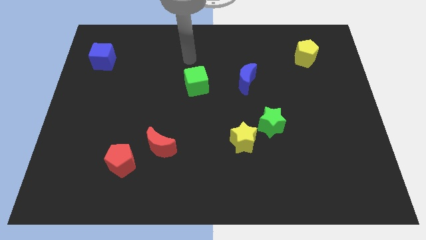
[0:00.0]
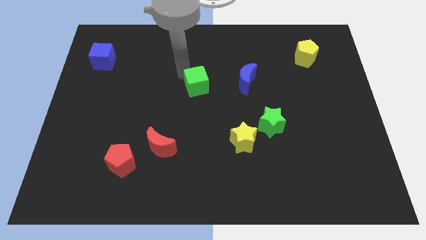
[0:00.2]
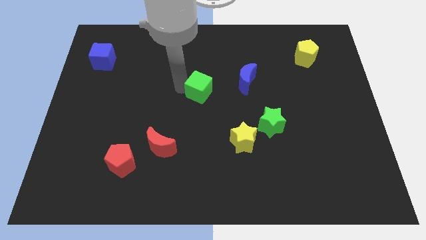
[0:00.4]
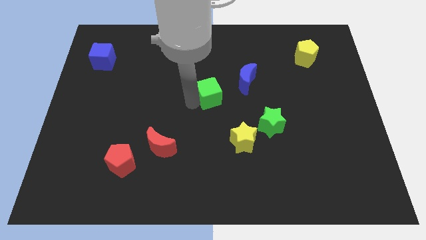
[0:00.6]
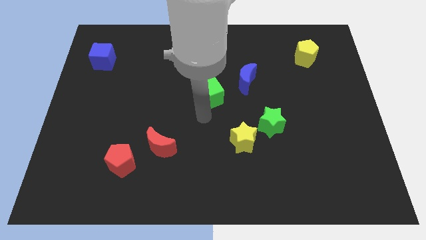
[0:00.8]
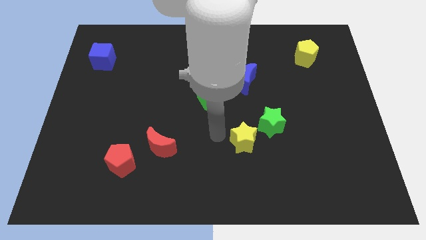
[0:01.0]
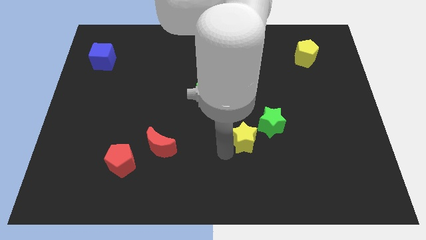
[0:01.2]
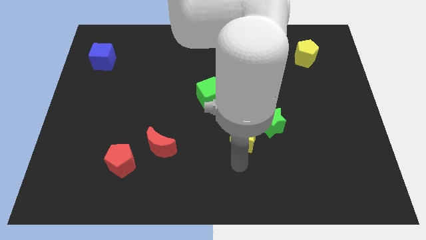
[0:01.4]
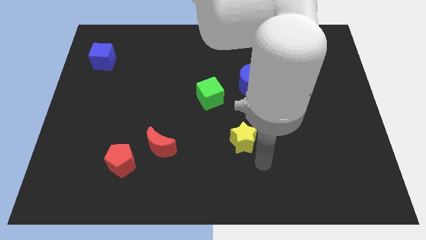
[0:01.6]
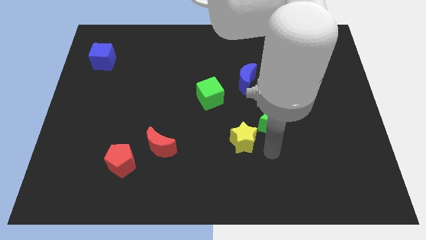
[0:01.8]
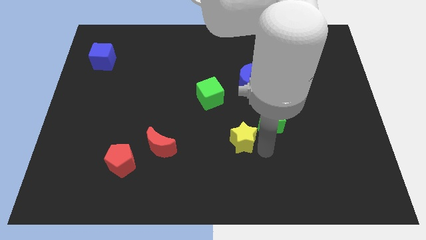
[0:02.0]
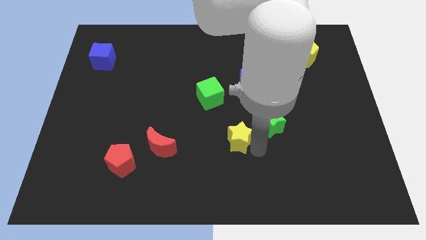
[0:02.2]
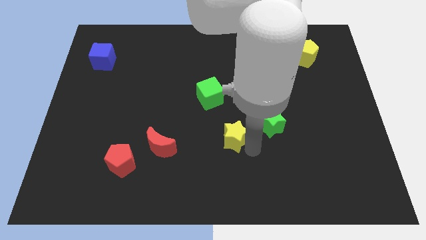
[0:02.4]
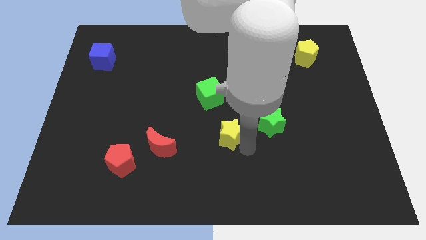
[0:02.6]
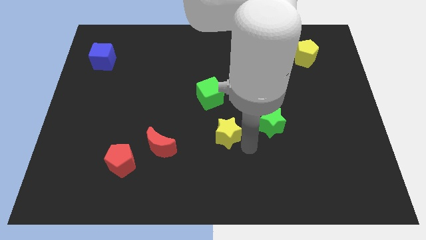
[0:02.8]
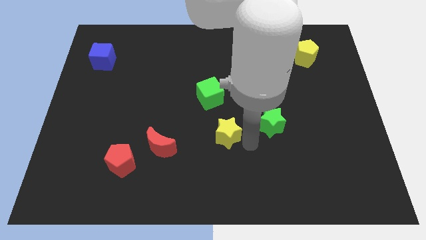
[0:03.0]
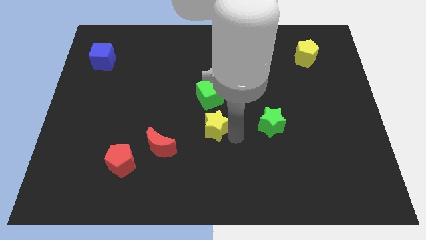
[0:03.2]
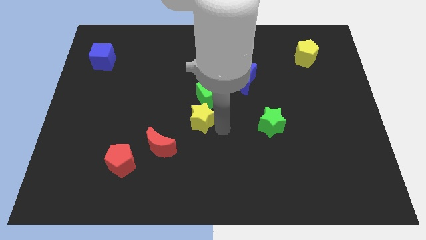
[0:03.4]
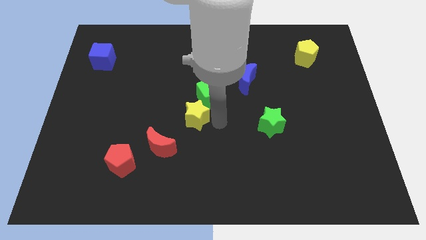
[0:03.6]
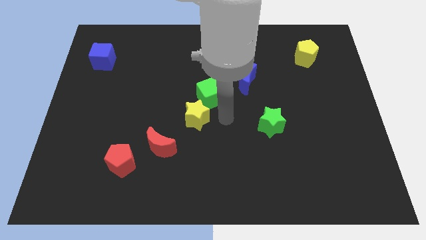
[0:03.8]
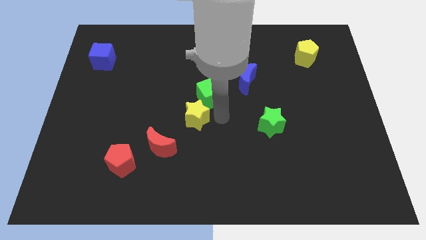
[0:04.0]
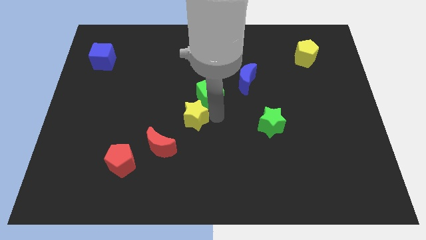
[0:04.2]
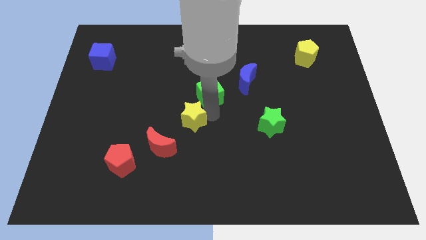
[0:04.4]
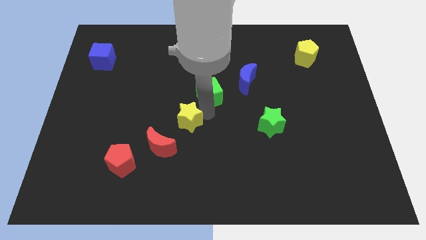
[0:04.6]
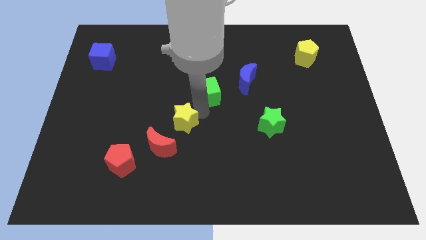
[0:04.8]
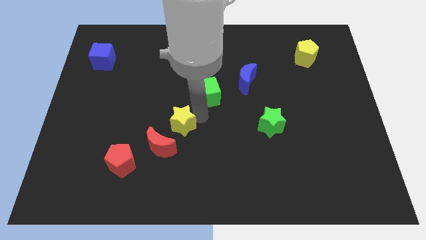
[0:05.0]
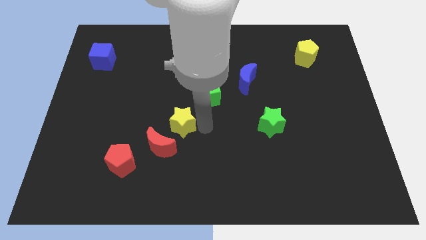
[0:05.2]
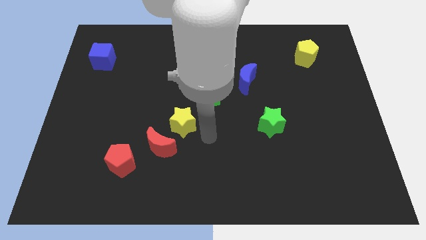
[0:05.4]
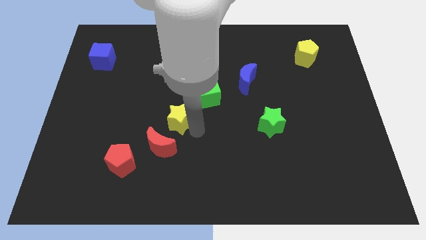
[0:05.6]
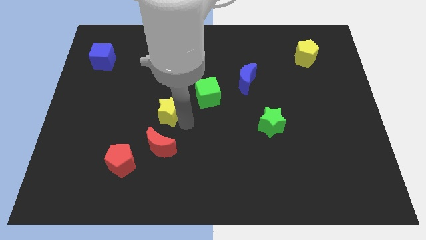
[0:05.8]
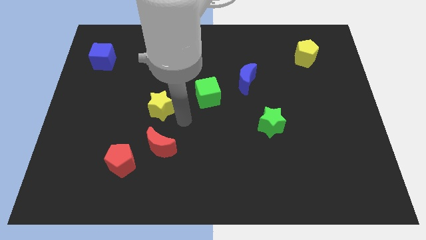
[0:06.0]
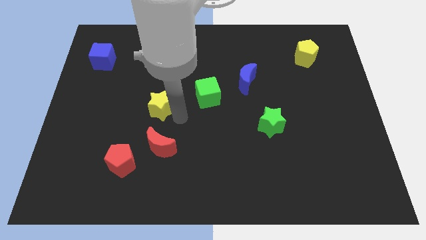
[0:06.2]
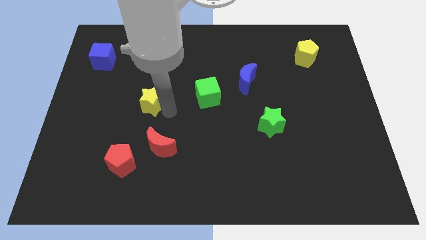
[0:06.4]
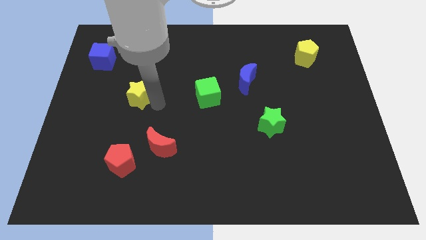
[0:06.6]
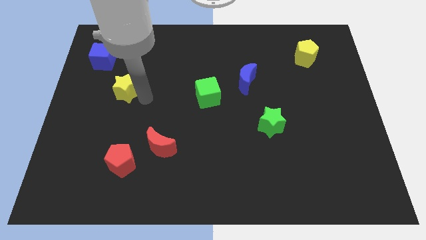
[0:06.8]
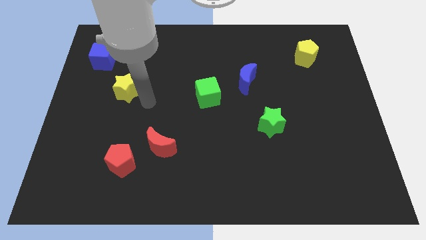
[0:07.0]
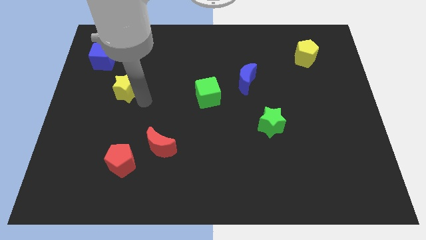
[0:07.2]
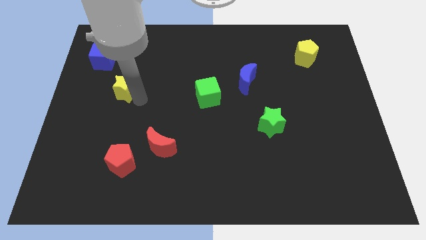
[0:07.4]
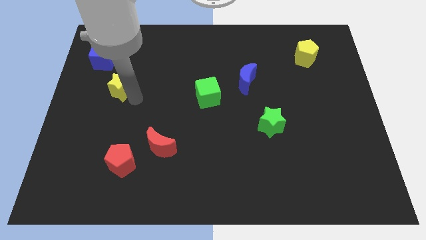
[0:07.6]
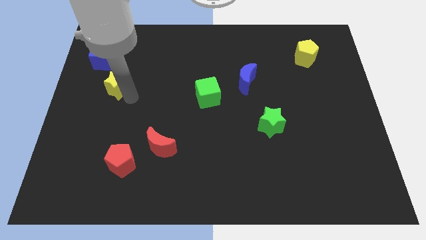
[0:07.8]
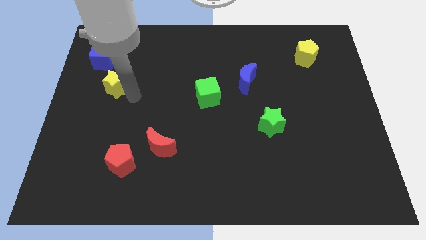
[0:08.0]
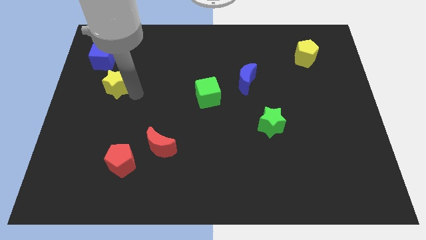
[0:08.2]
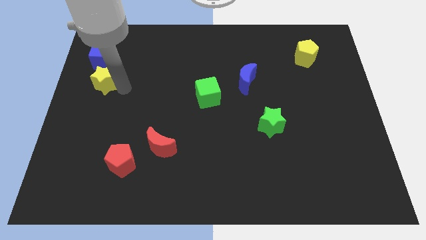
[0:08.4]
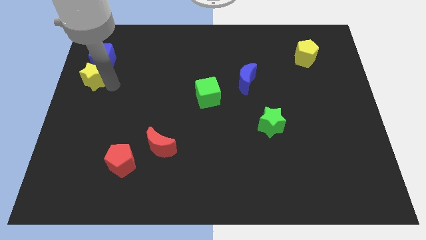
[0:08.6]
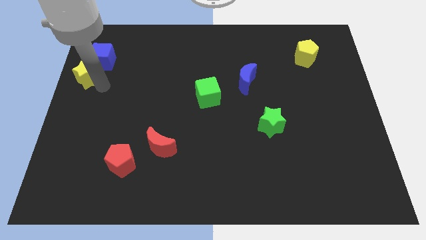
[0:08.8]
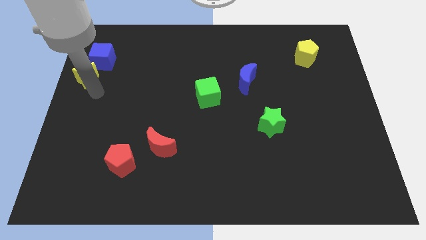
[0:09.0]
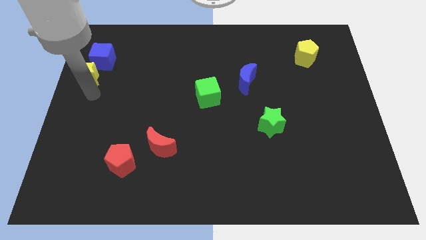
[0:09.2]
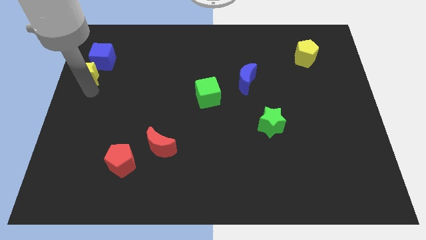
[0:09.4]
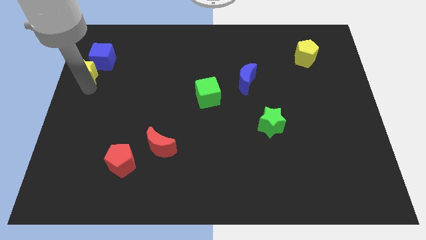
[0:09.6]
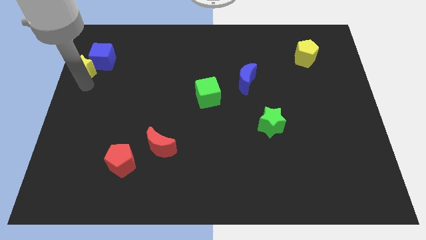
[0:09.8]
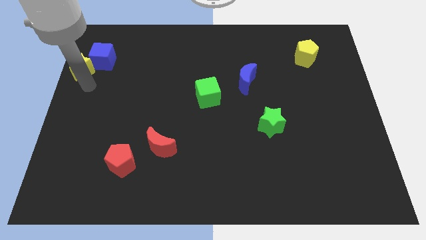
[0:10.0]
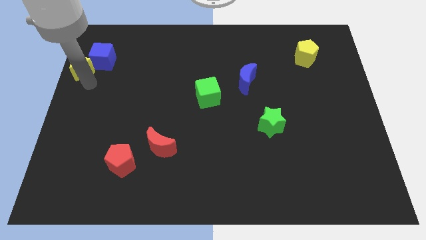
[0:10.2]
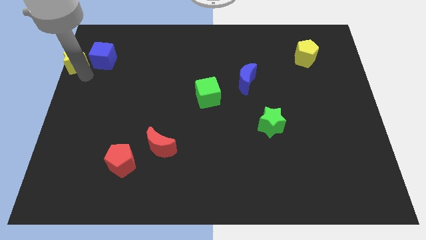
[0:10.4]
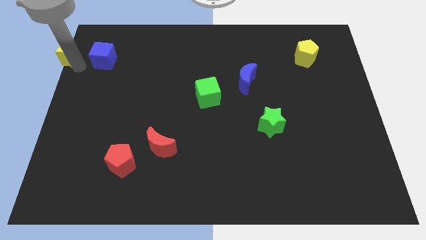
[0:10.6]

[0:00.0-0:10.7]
put the yellow star to the top left of the board

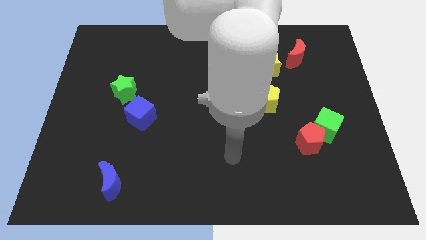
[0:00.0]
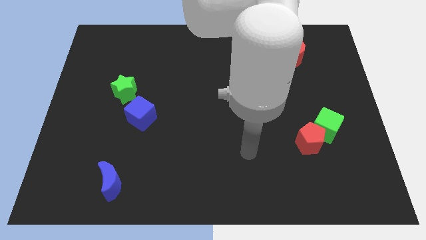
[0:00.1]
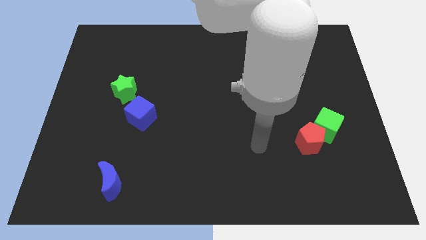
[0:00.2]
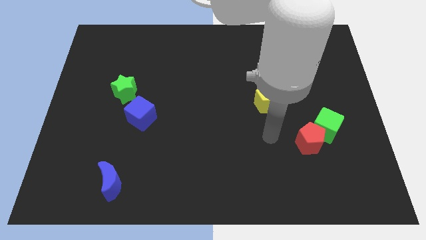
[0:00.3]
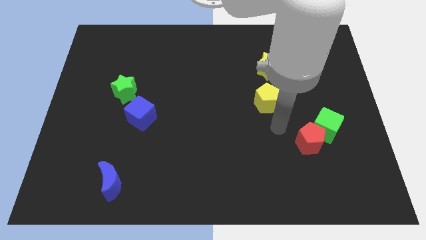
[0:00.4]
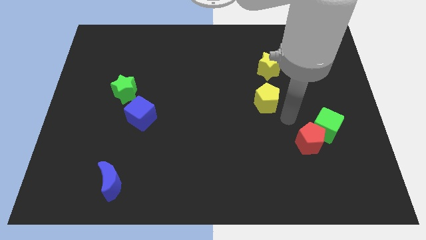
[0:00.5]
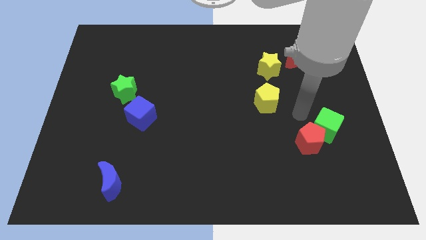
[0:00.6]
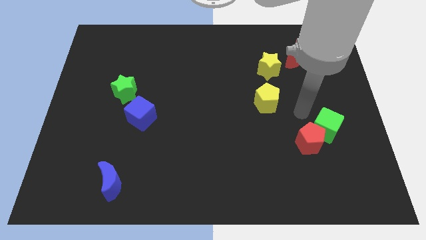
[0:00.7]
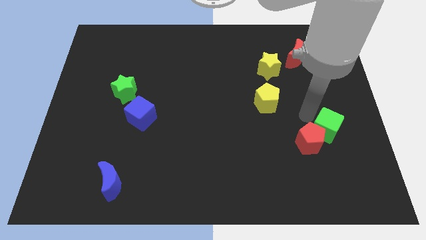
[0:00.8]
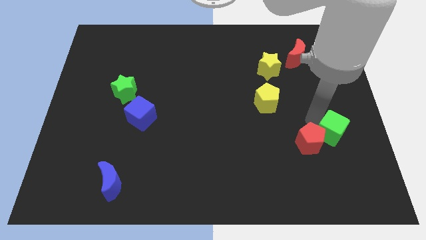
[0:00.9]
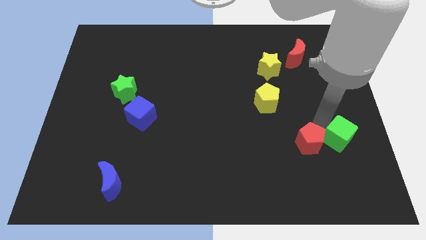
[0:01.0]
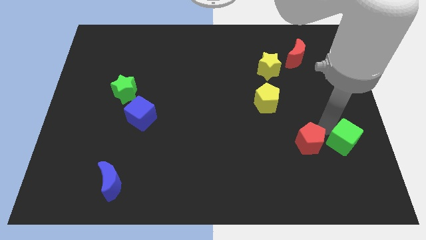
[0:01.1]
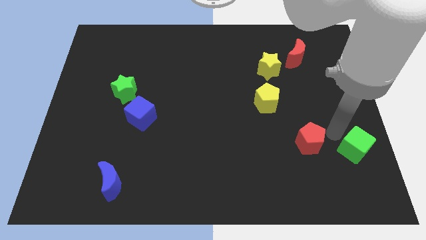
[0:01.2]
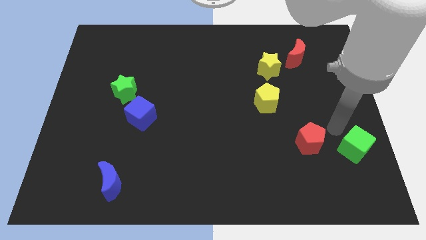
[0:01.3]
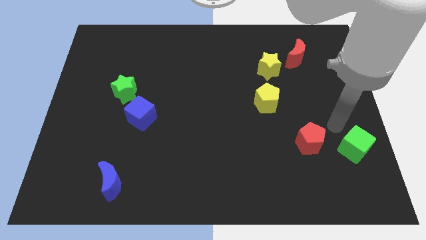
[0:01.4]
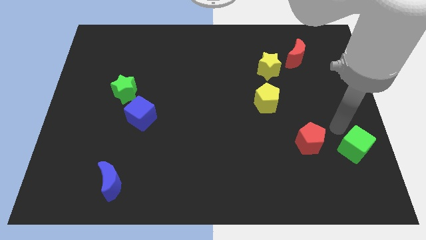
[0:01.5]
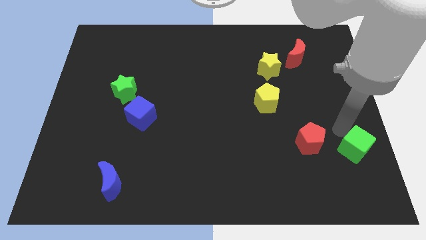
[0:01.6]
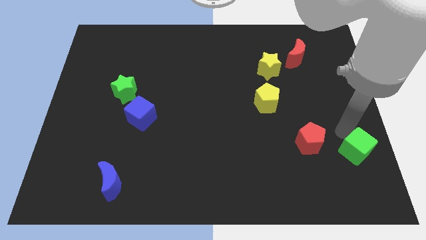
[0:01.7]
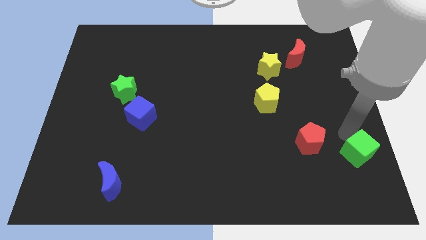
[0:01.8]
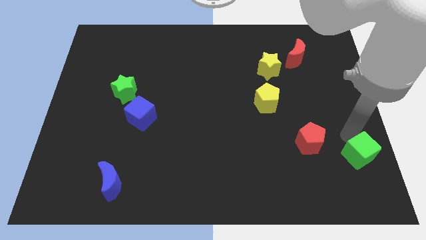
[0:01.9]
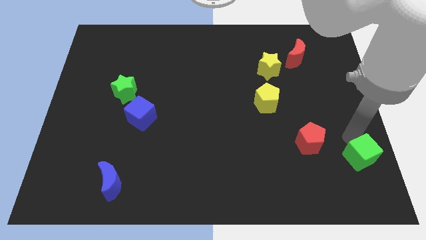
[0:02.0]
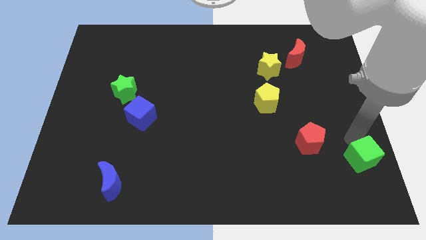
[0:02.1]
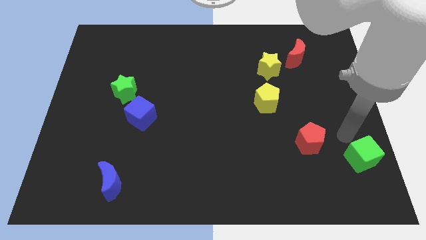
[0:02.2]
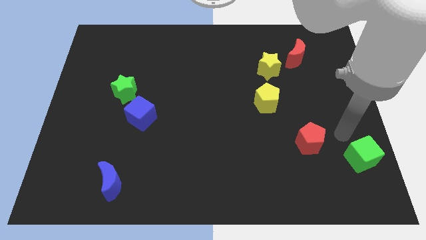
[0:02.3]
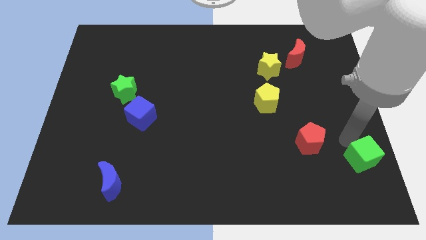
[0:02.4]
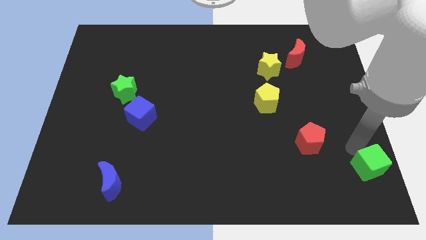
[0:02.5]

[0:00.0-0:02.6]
slide the green cube to the bottom right of the board
